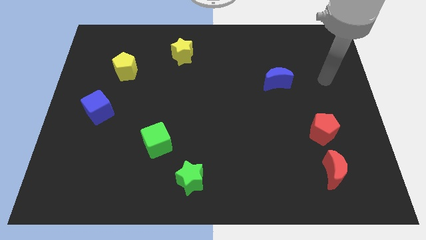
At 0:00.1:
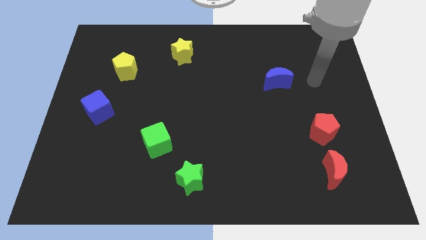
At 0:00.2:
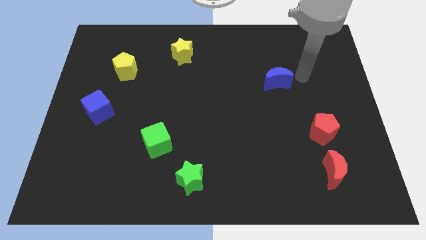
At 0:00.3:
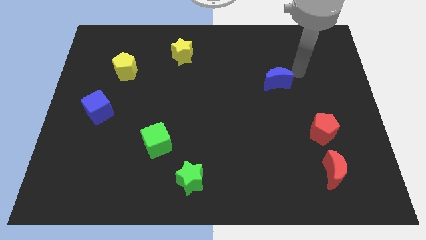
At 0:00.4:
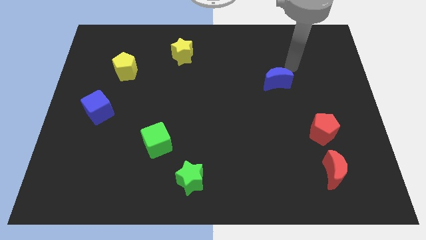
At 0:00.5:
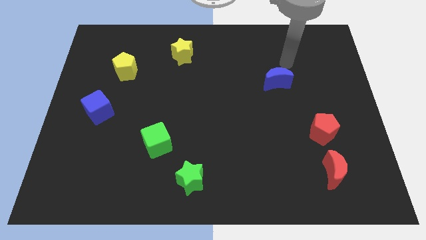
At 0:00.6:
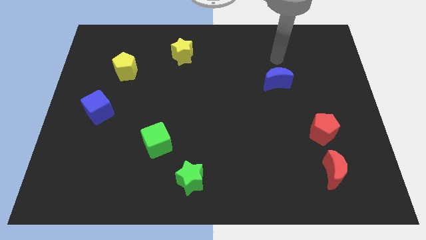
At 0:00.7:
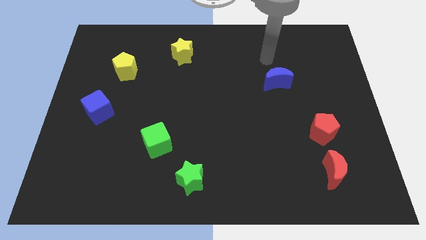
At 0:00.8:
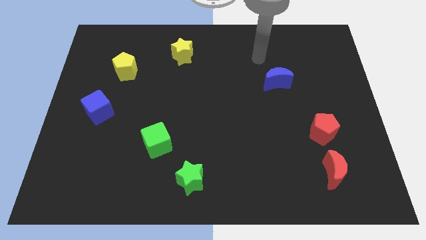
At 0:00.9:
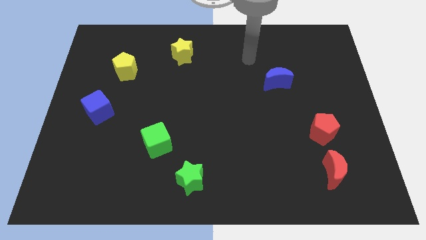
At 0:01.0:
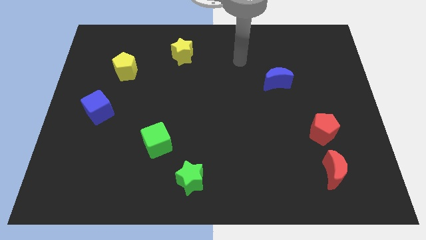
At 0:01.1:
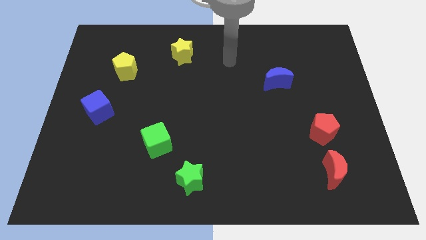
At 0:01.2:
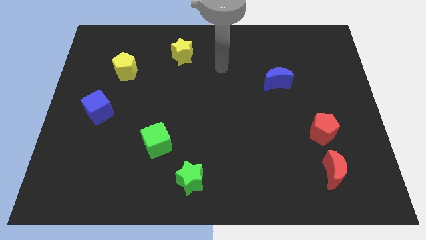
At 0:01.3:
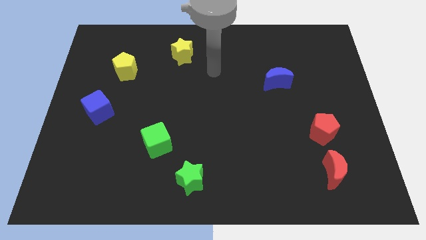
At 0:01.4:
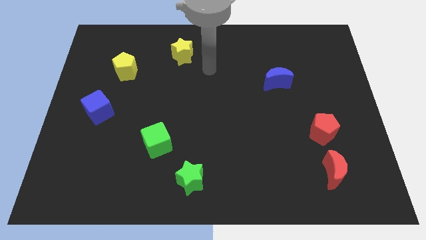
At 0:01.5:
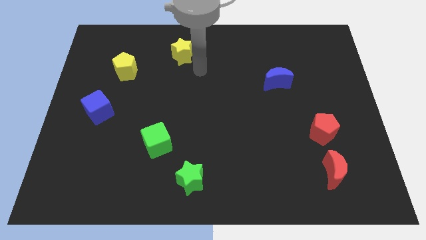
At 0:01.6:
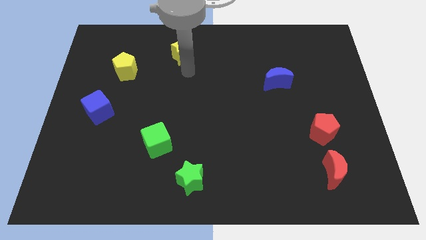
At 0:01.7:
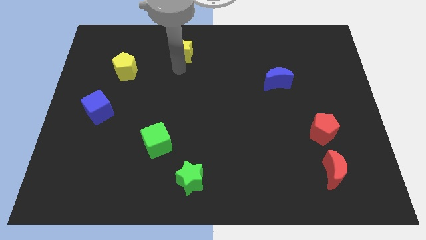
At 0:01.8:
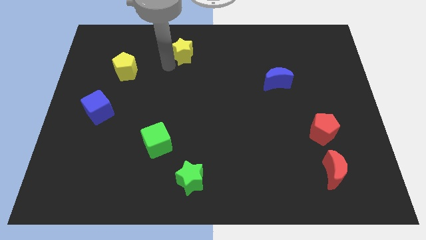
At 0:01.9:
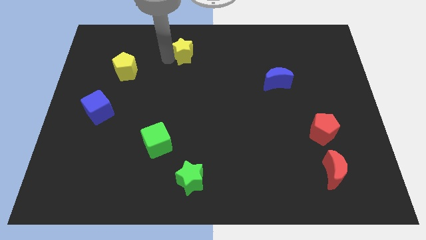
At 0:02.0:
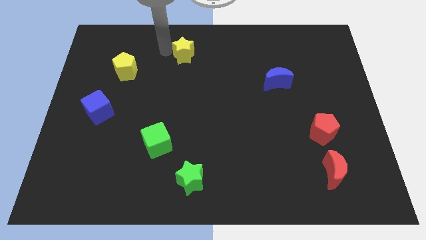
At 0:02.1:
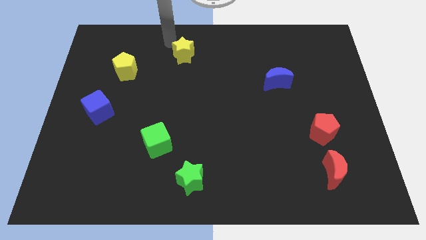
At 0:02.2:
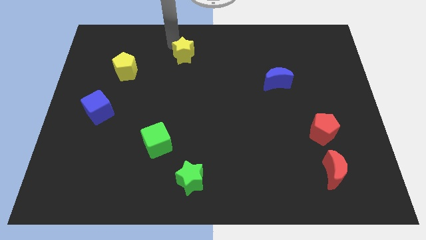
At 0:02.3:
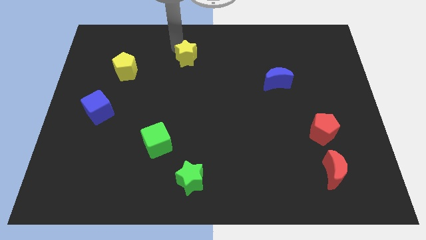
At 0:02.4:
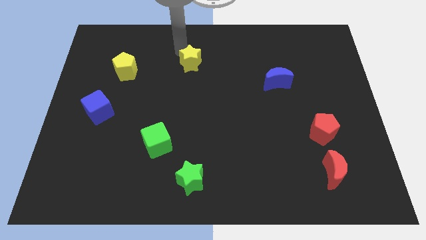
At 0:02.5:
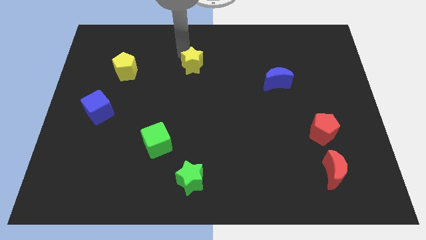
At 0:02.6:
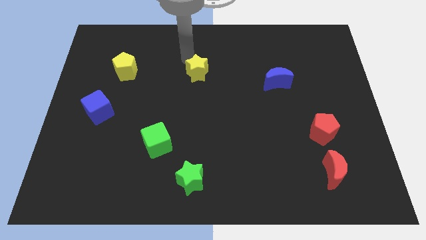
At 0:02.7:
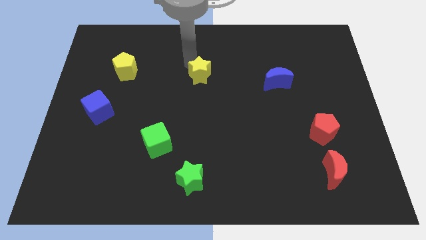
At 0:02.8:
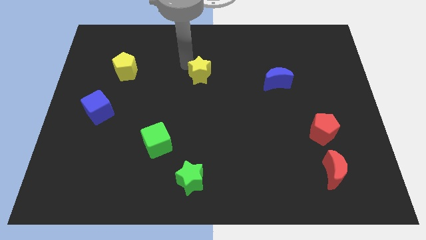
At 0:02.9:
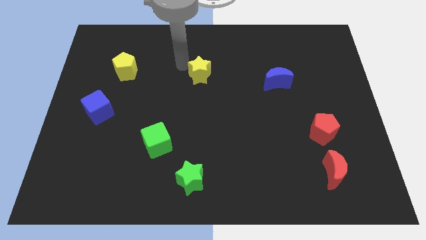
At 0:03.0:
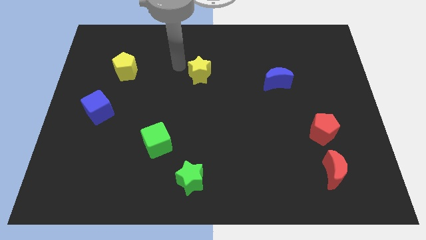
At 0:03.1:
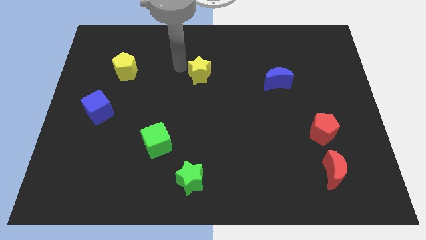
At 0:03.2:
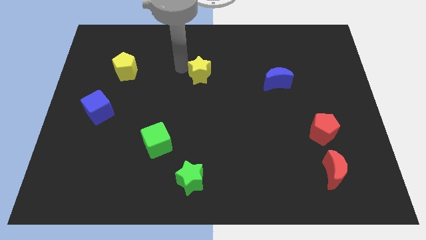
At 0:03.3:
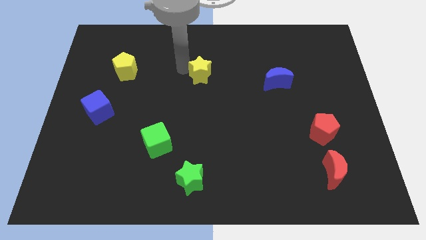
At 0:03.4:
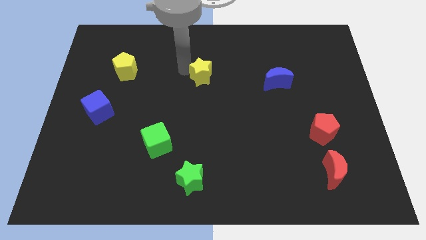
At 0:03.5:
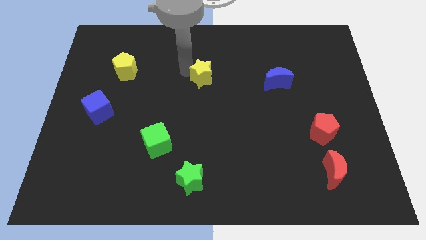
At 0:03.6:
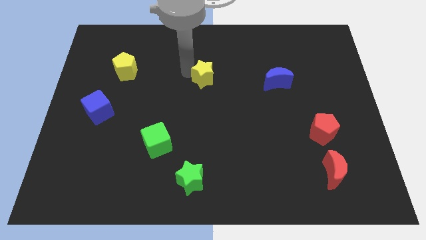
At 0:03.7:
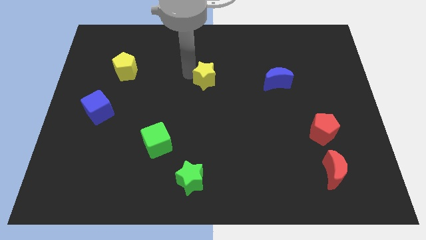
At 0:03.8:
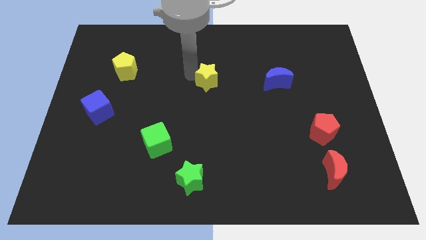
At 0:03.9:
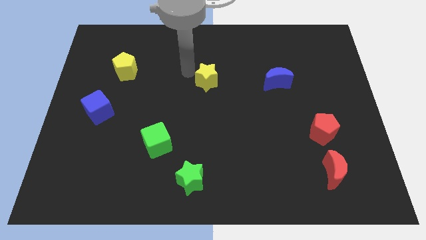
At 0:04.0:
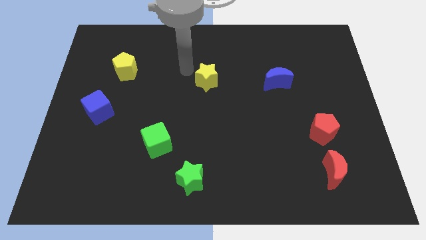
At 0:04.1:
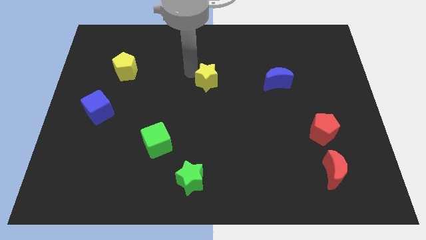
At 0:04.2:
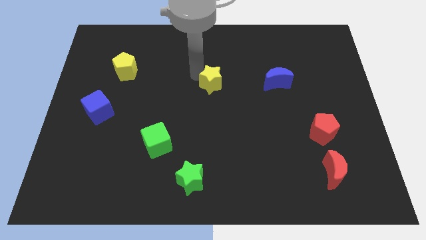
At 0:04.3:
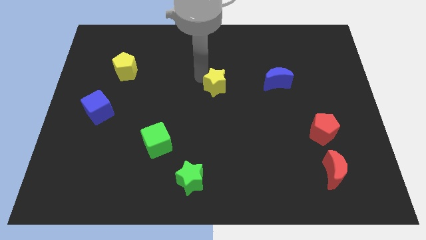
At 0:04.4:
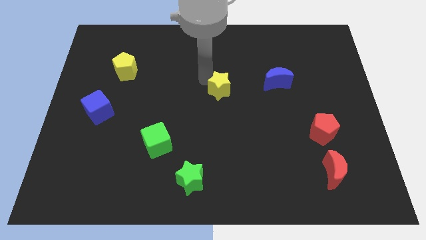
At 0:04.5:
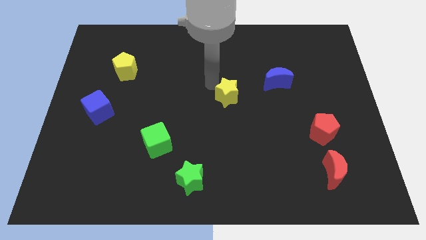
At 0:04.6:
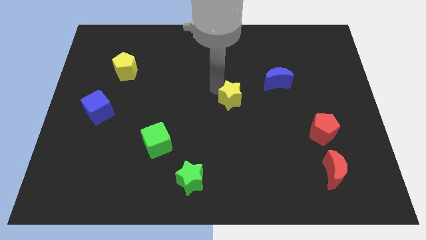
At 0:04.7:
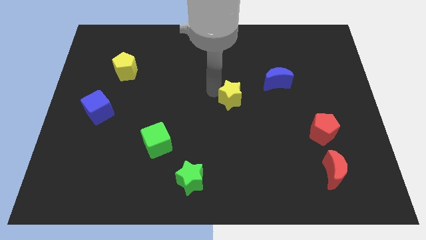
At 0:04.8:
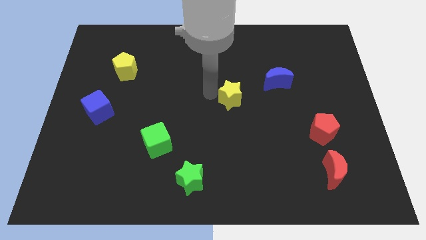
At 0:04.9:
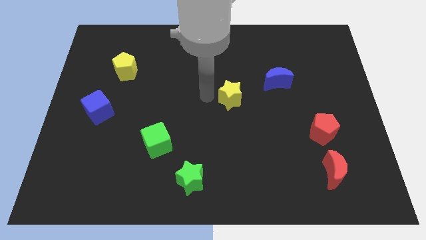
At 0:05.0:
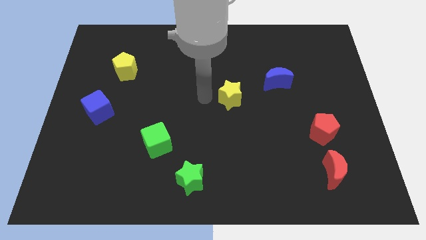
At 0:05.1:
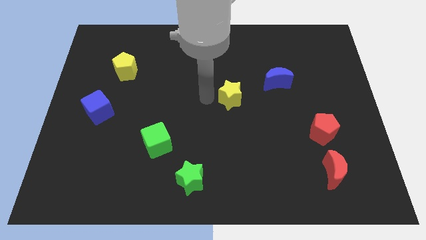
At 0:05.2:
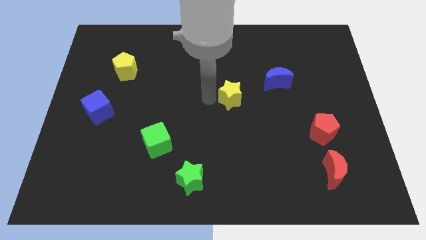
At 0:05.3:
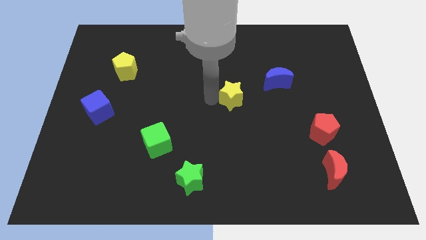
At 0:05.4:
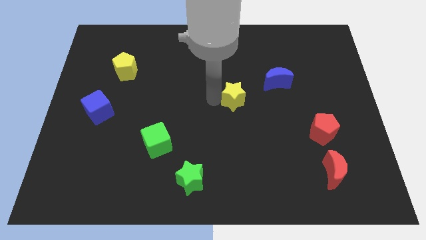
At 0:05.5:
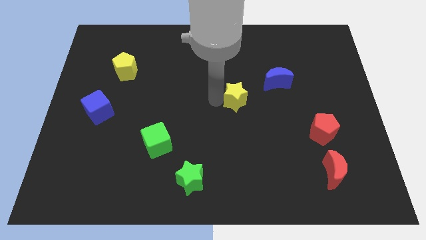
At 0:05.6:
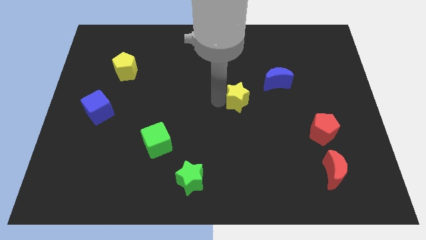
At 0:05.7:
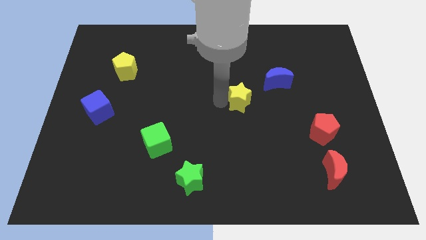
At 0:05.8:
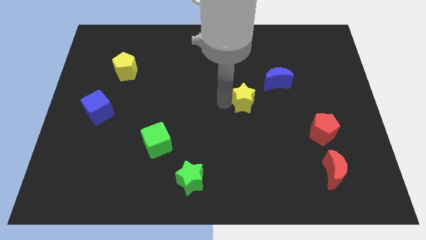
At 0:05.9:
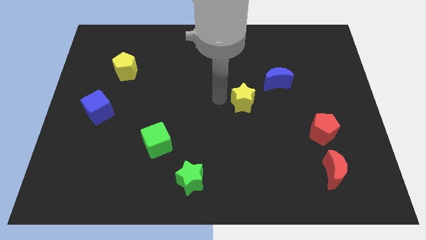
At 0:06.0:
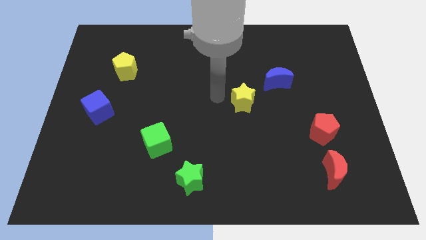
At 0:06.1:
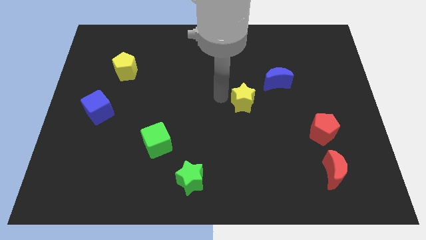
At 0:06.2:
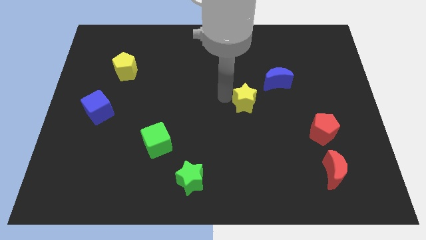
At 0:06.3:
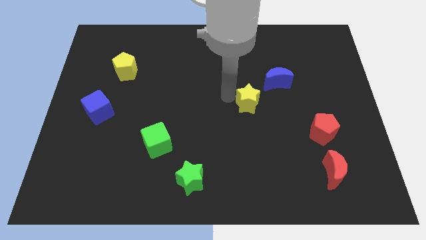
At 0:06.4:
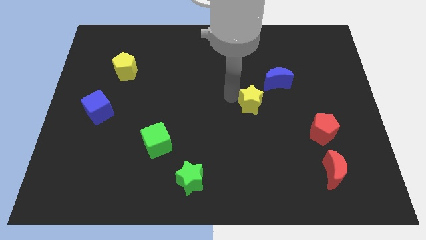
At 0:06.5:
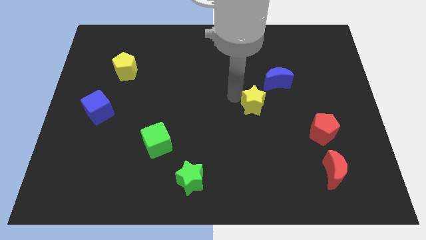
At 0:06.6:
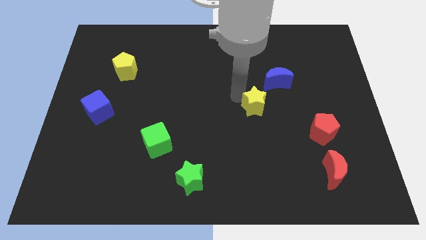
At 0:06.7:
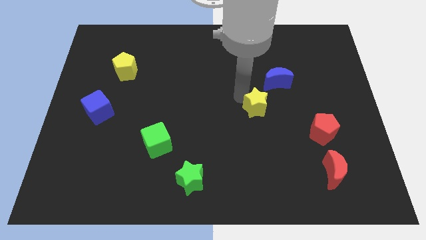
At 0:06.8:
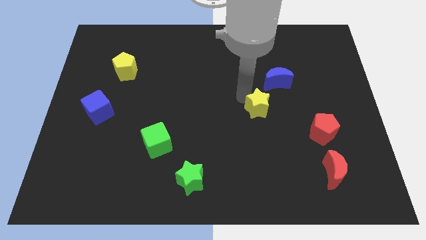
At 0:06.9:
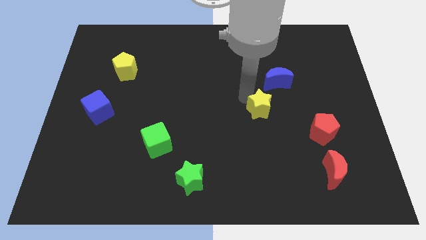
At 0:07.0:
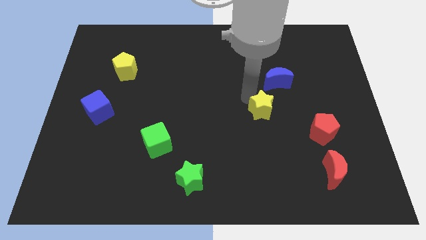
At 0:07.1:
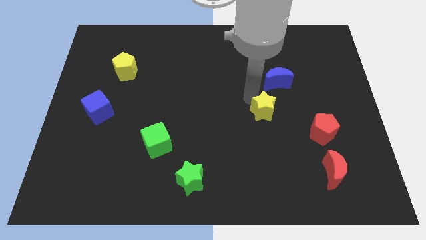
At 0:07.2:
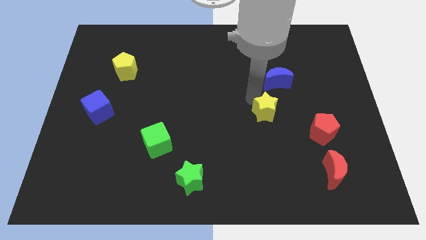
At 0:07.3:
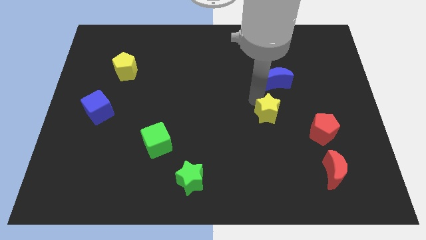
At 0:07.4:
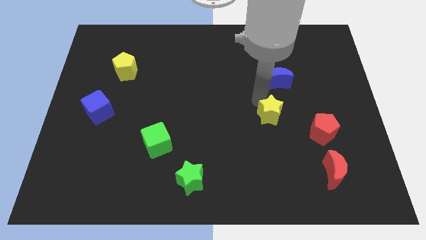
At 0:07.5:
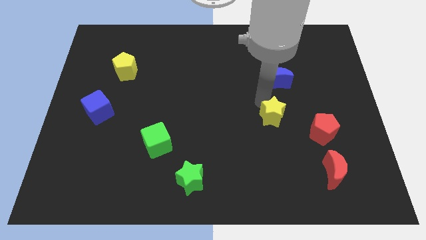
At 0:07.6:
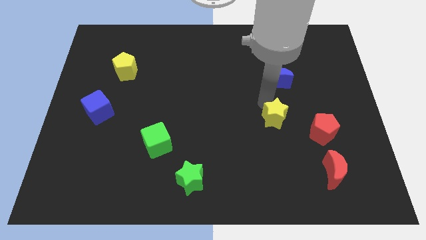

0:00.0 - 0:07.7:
slide the yellow star to the top left of the red pentagon
